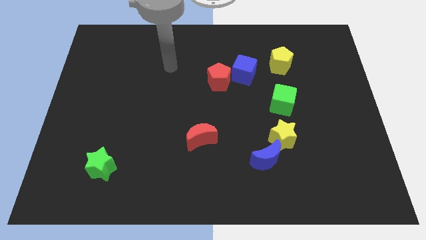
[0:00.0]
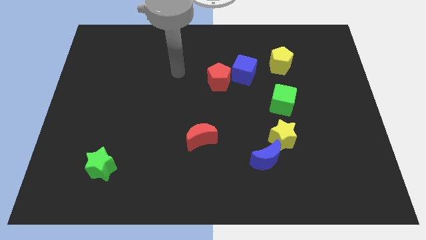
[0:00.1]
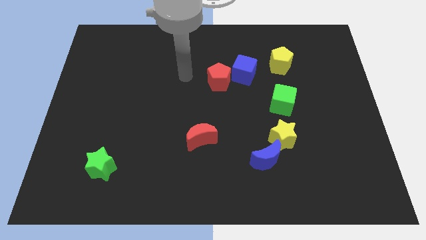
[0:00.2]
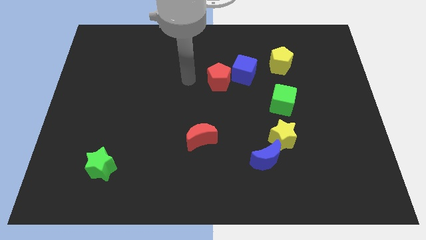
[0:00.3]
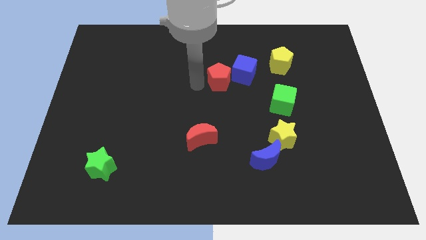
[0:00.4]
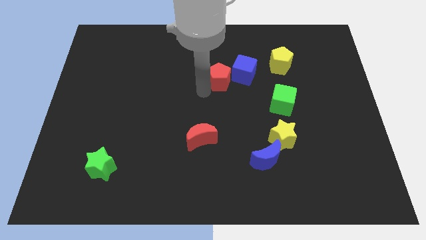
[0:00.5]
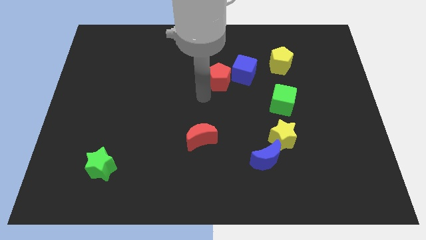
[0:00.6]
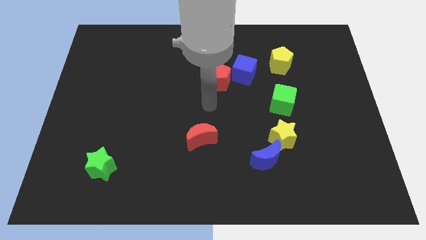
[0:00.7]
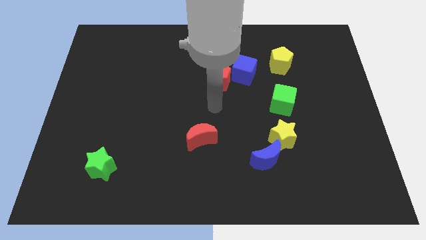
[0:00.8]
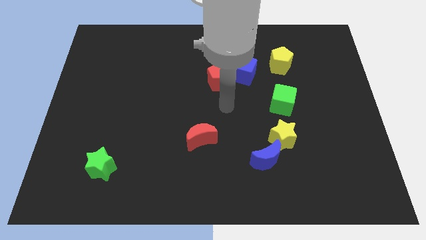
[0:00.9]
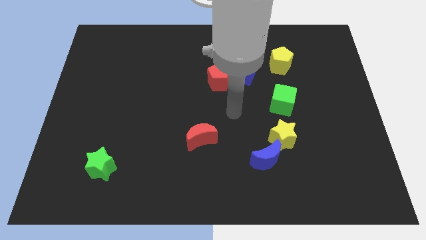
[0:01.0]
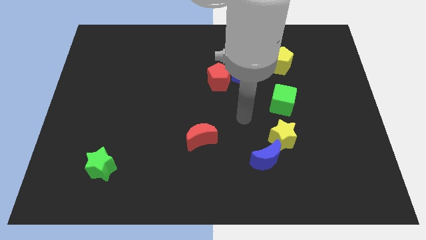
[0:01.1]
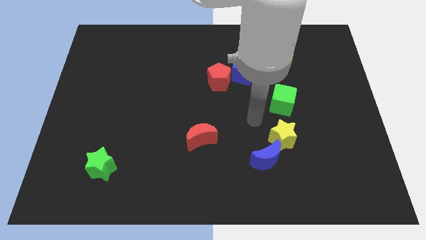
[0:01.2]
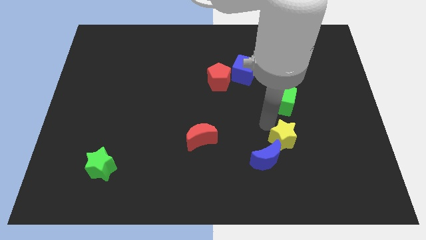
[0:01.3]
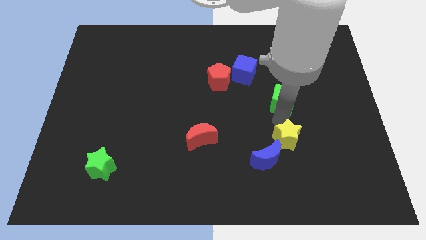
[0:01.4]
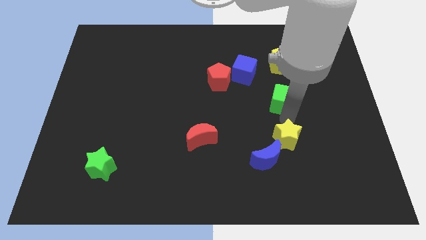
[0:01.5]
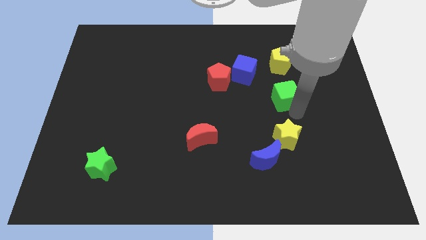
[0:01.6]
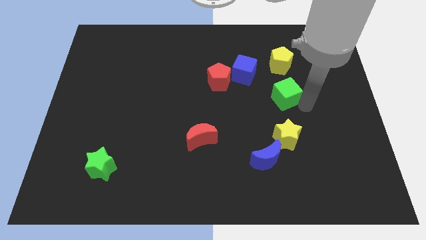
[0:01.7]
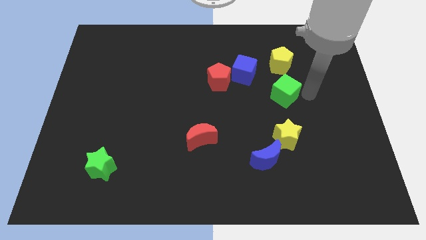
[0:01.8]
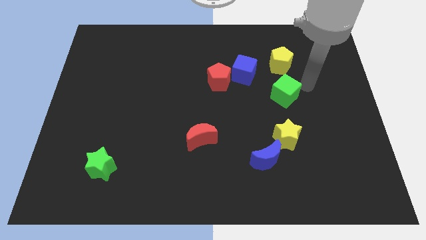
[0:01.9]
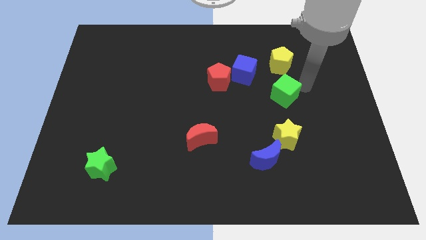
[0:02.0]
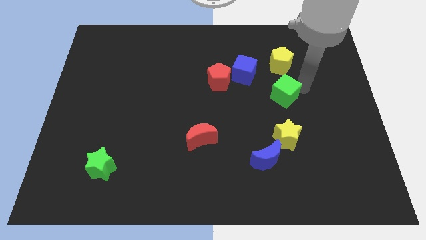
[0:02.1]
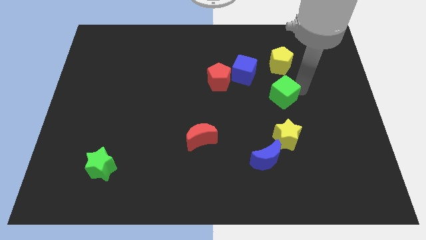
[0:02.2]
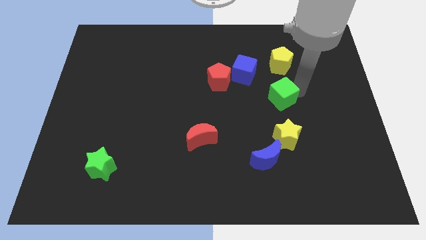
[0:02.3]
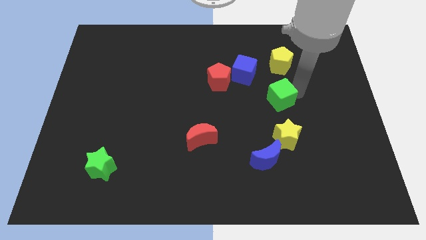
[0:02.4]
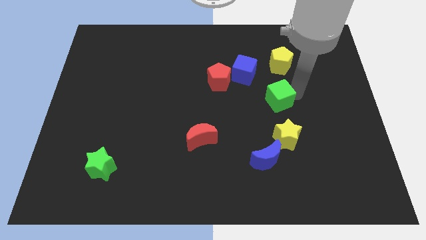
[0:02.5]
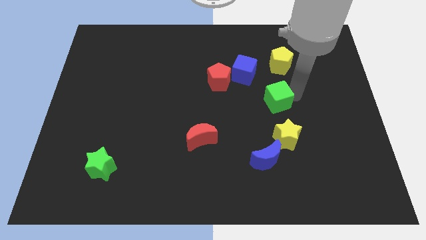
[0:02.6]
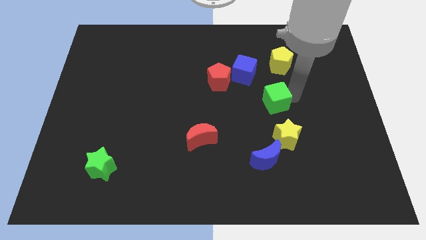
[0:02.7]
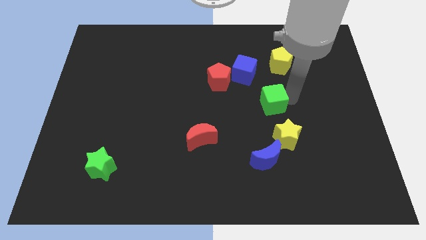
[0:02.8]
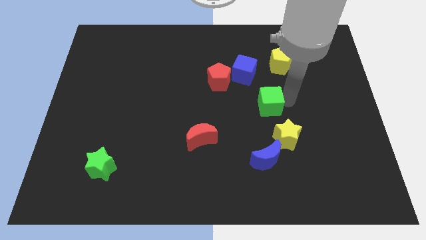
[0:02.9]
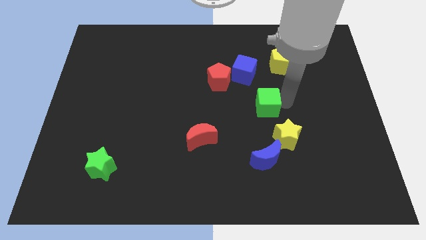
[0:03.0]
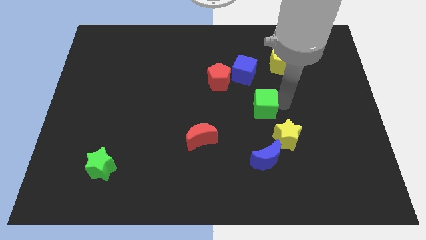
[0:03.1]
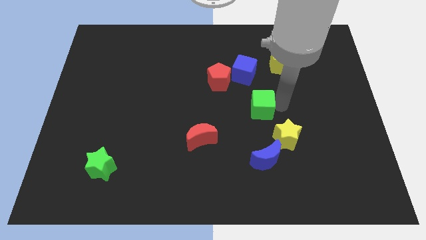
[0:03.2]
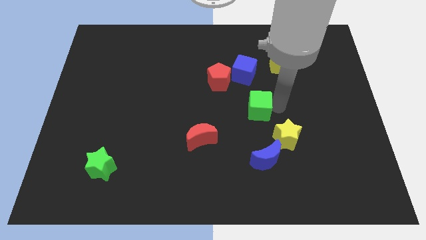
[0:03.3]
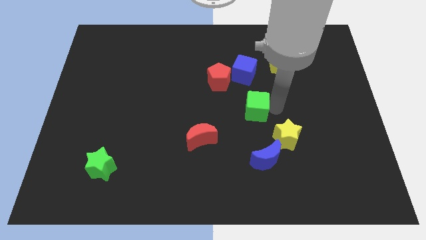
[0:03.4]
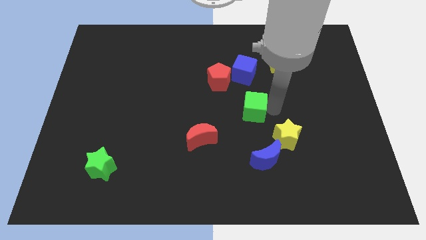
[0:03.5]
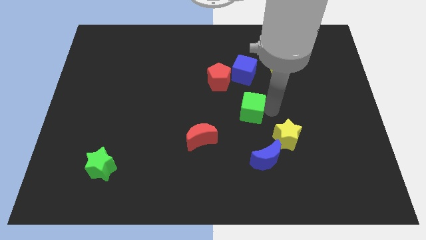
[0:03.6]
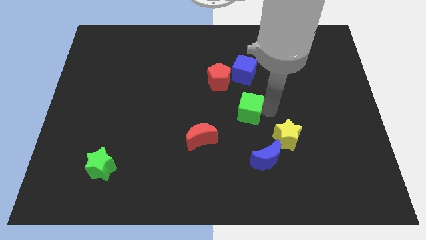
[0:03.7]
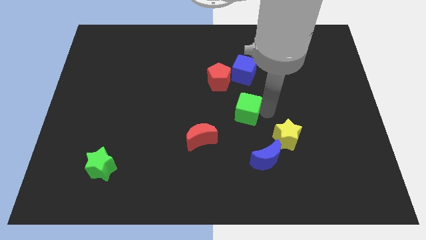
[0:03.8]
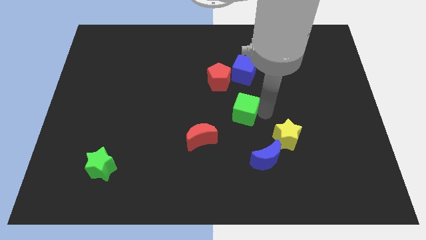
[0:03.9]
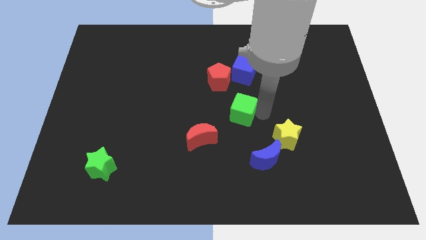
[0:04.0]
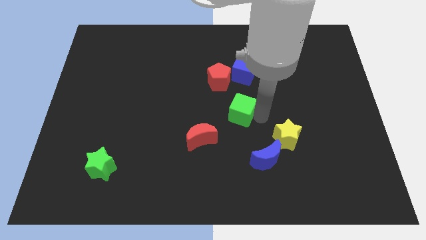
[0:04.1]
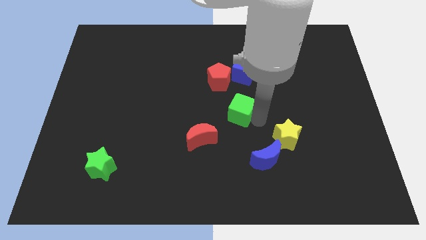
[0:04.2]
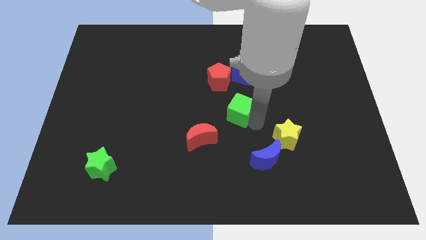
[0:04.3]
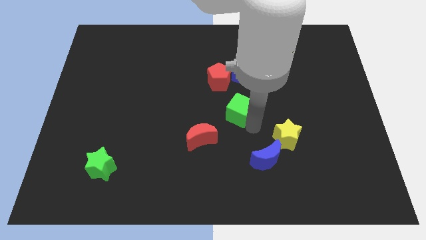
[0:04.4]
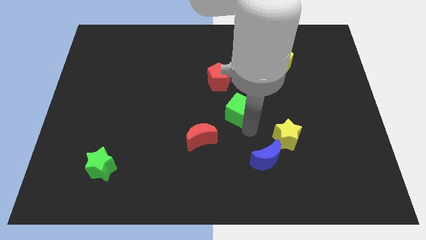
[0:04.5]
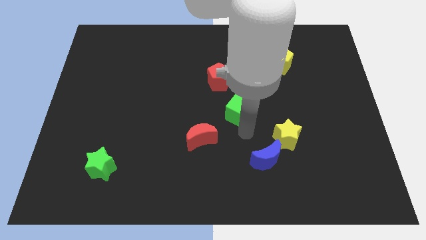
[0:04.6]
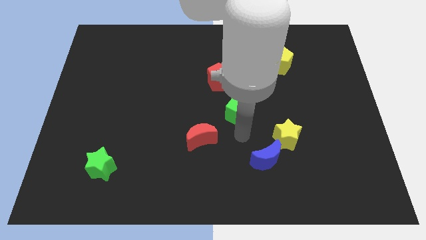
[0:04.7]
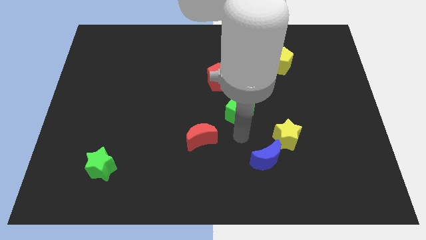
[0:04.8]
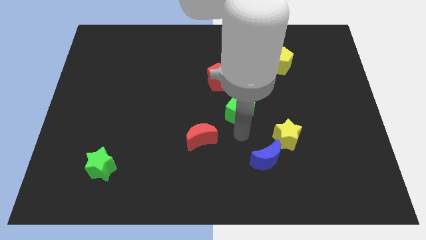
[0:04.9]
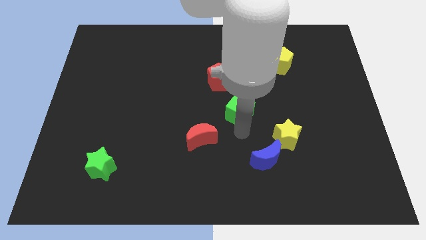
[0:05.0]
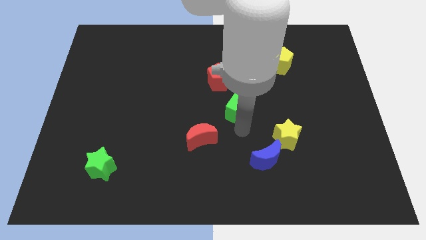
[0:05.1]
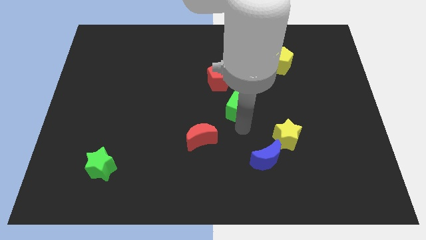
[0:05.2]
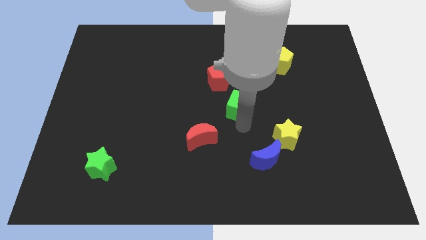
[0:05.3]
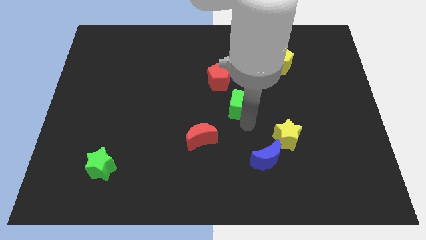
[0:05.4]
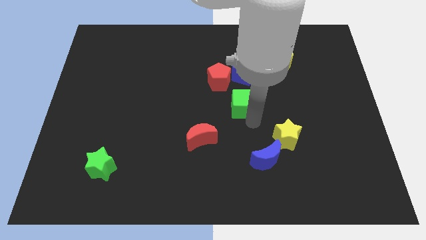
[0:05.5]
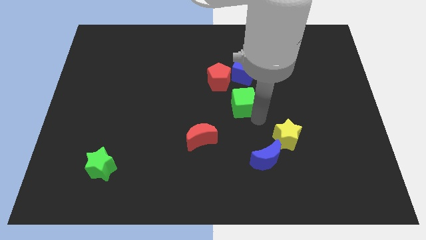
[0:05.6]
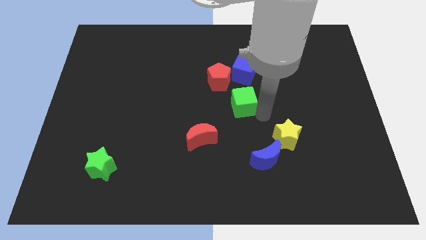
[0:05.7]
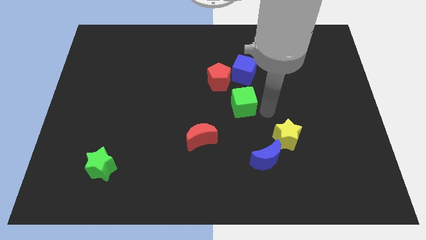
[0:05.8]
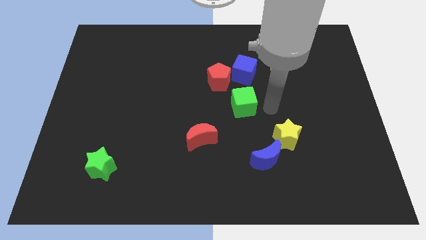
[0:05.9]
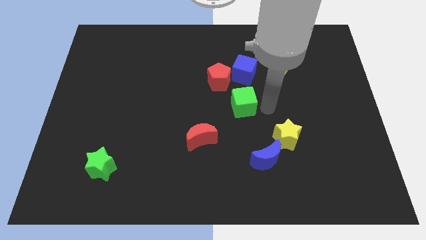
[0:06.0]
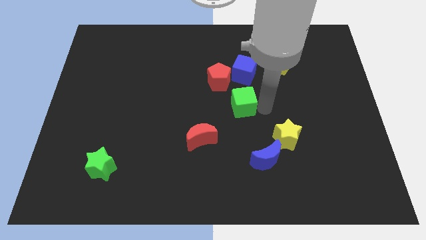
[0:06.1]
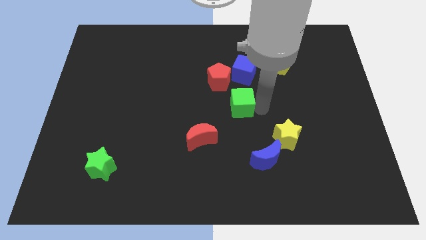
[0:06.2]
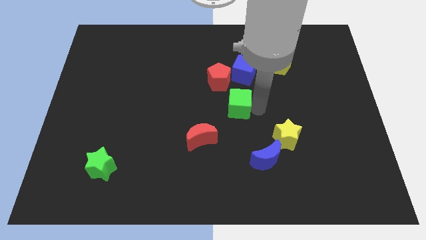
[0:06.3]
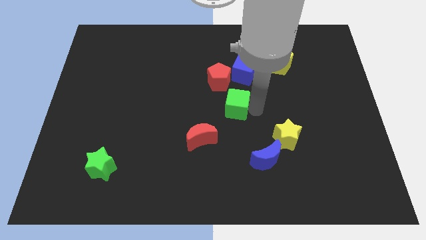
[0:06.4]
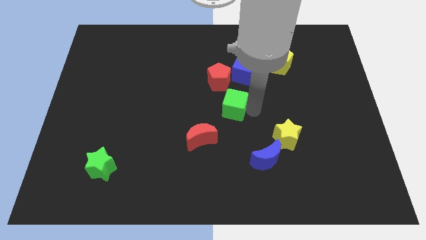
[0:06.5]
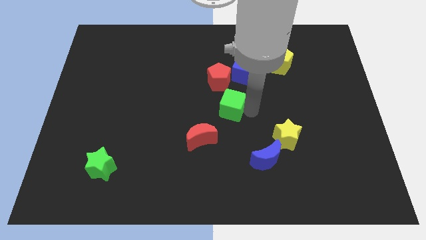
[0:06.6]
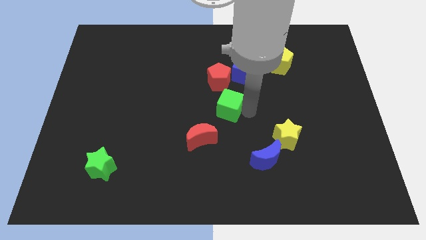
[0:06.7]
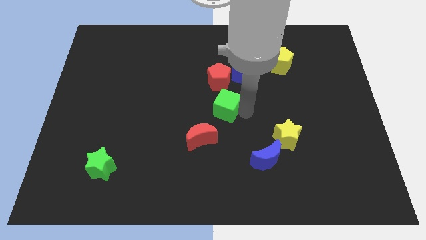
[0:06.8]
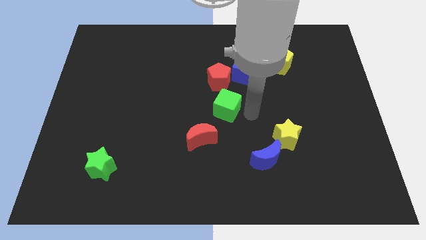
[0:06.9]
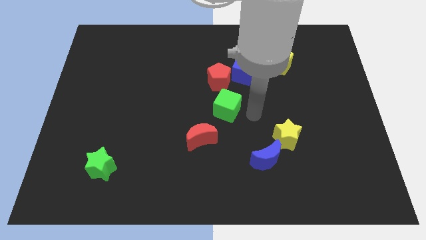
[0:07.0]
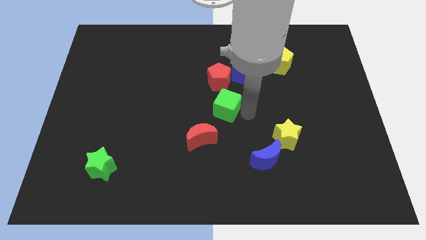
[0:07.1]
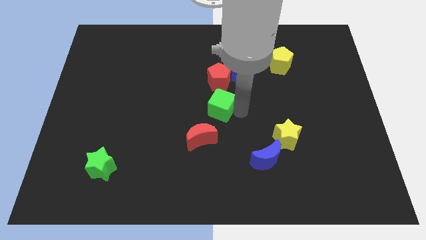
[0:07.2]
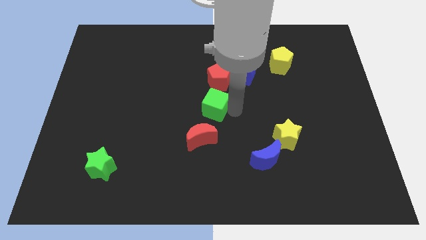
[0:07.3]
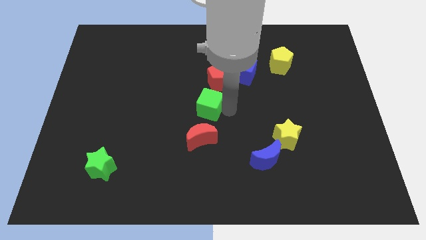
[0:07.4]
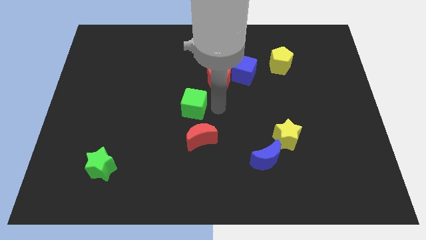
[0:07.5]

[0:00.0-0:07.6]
push the green cube to the left

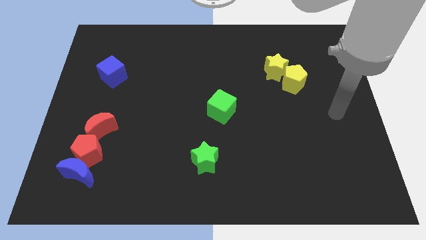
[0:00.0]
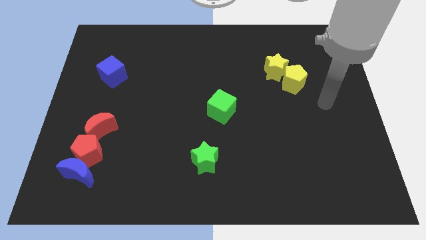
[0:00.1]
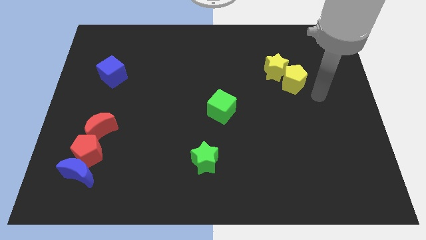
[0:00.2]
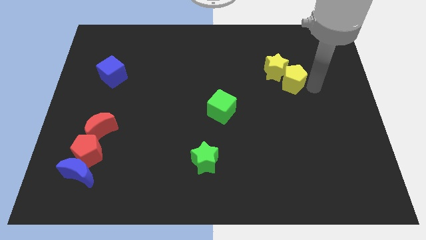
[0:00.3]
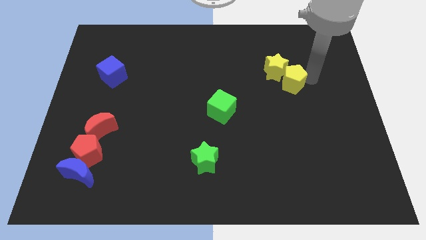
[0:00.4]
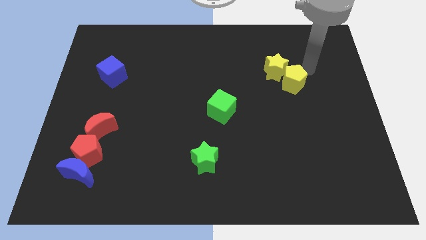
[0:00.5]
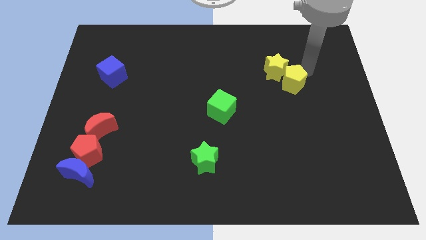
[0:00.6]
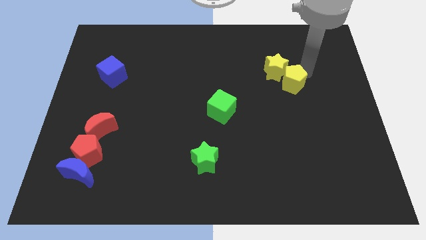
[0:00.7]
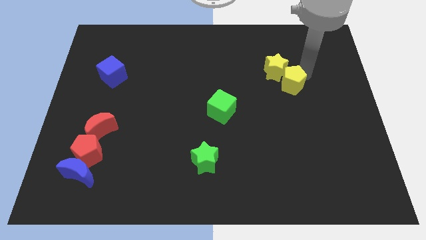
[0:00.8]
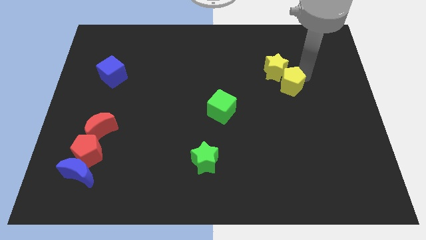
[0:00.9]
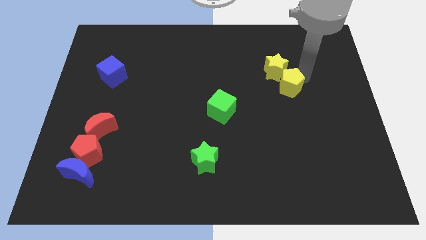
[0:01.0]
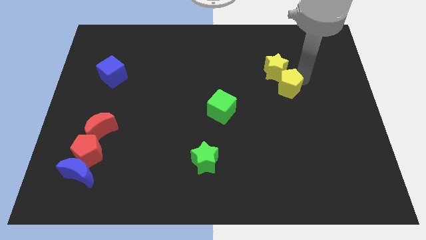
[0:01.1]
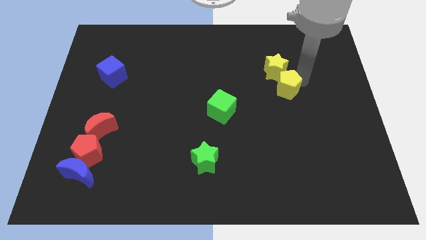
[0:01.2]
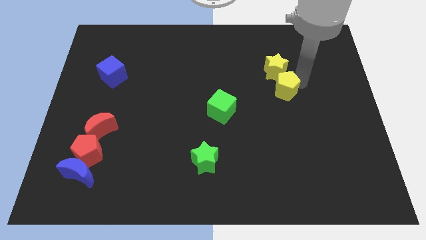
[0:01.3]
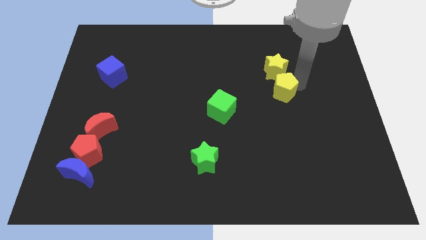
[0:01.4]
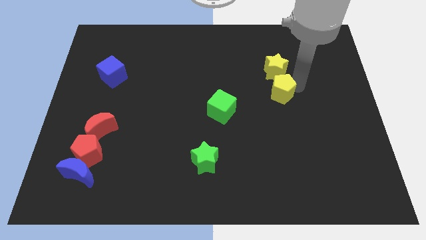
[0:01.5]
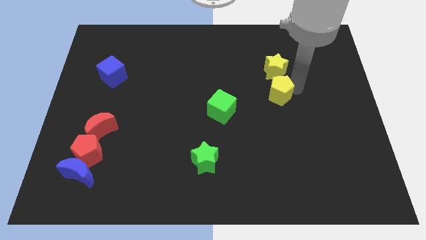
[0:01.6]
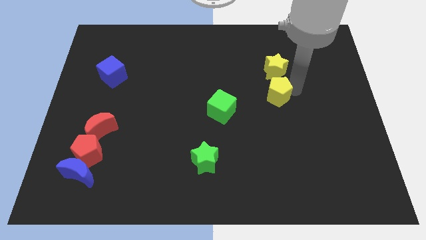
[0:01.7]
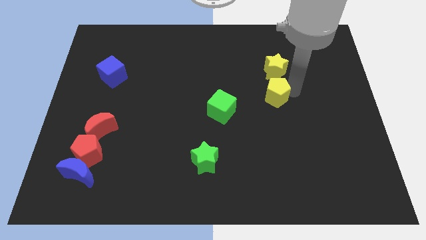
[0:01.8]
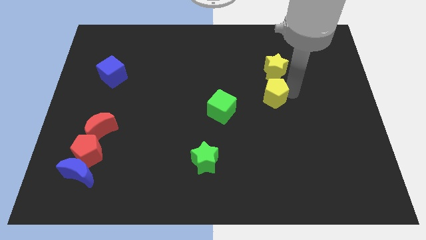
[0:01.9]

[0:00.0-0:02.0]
slightly push the yellow pentagon diagonally downwards and left
